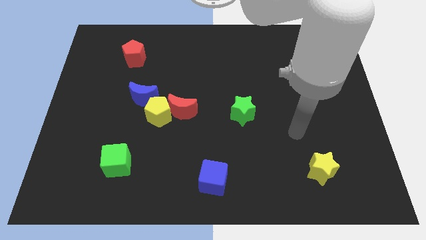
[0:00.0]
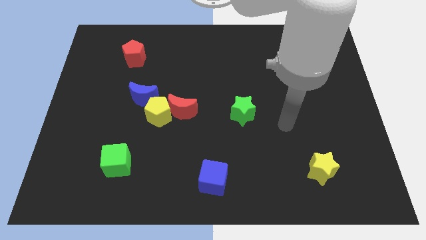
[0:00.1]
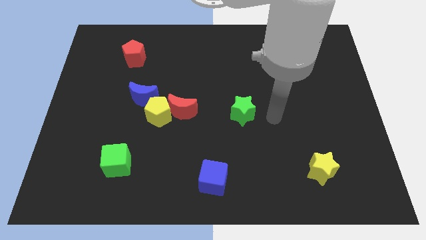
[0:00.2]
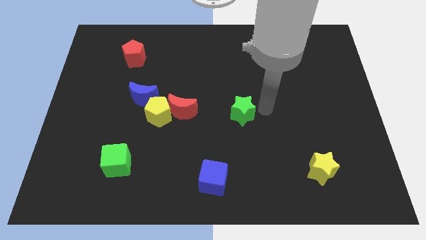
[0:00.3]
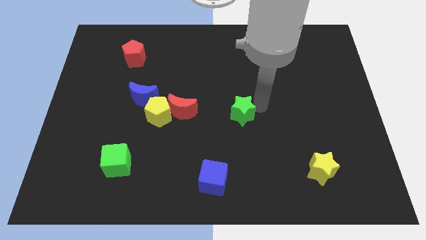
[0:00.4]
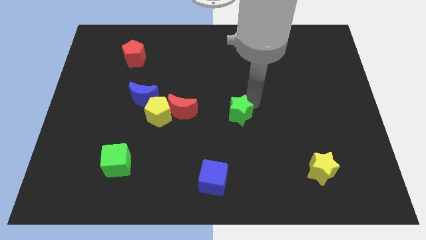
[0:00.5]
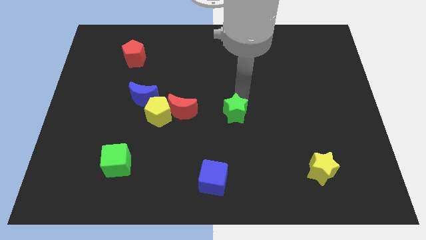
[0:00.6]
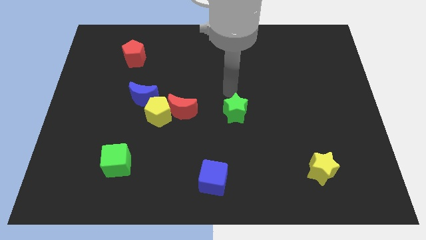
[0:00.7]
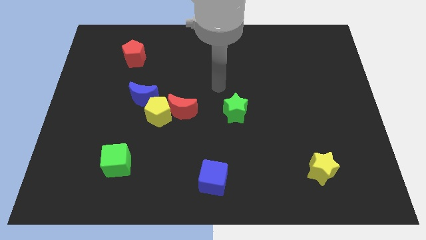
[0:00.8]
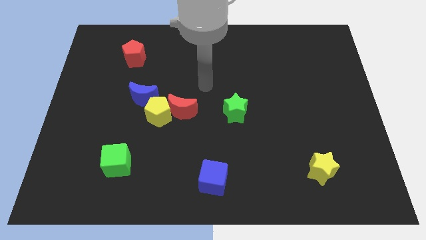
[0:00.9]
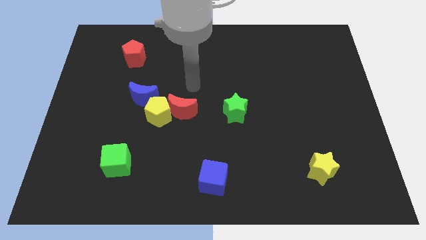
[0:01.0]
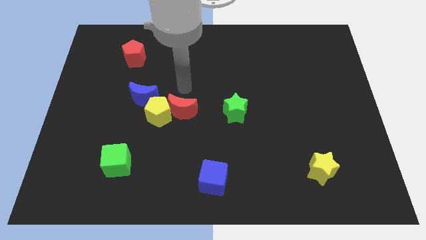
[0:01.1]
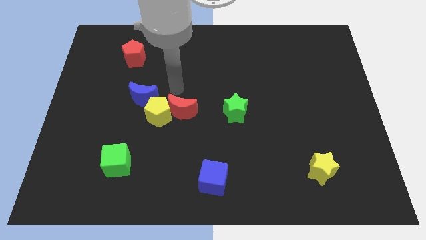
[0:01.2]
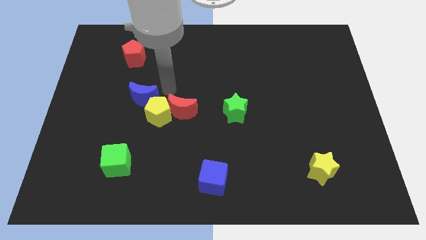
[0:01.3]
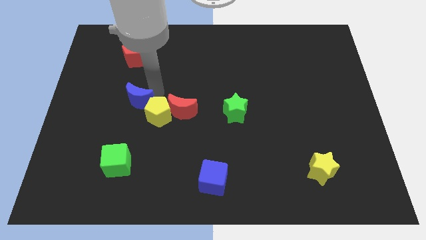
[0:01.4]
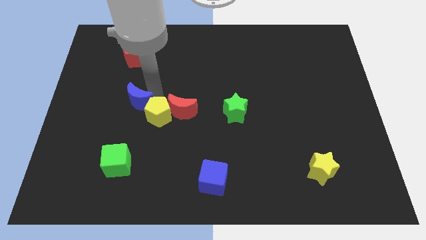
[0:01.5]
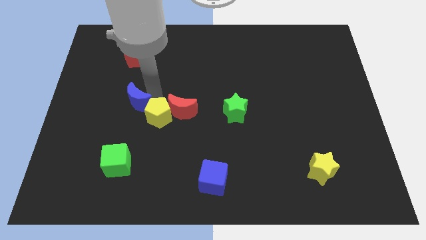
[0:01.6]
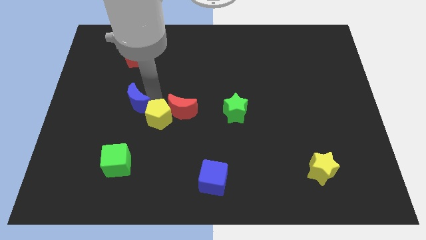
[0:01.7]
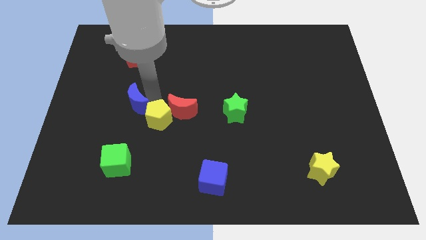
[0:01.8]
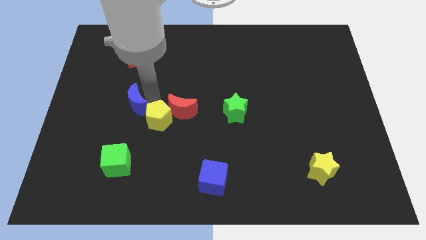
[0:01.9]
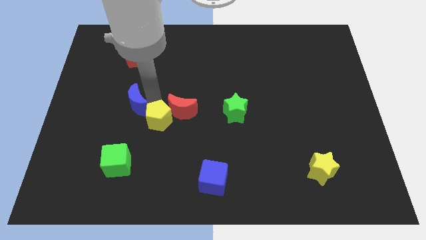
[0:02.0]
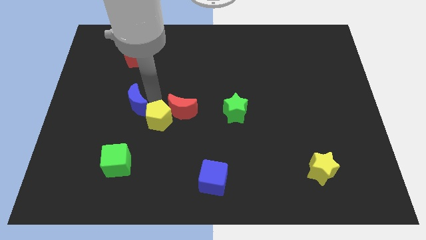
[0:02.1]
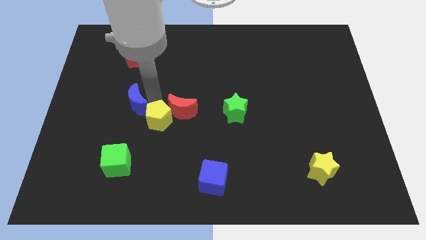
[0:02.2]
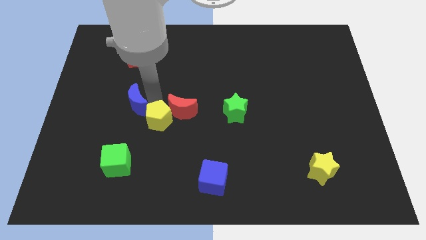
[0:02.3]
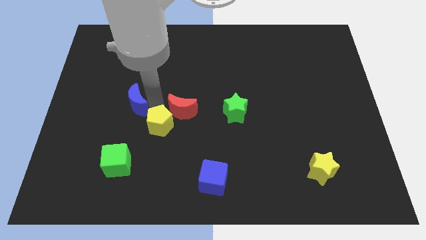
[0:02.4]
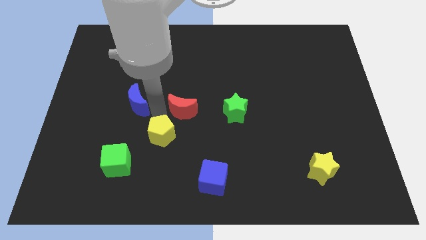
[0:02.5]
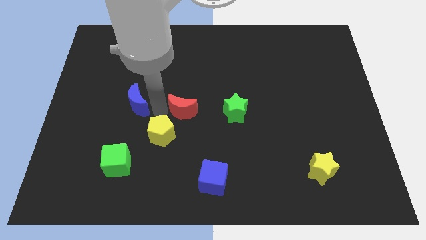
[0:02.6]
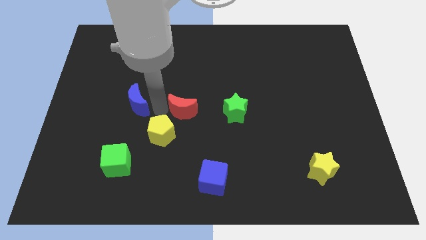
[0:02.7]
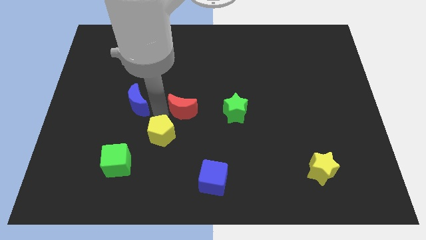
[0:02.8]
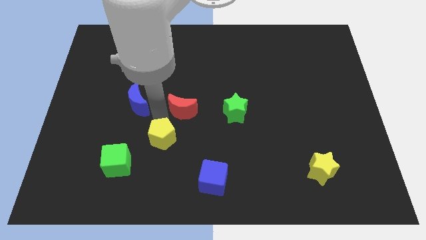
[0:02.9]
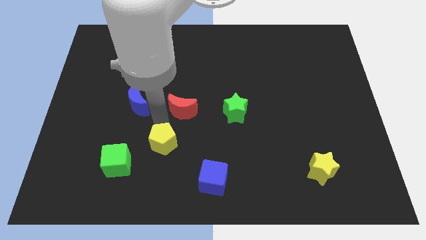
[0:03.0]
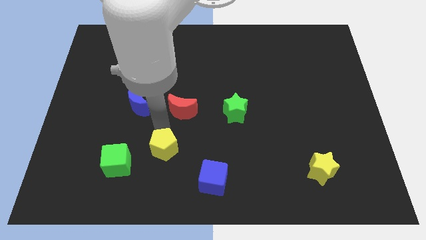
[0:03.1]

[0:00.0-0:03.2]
separate the yellow pentagon from the red moon and blue moon

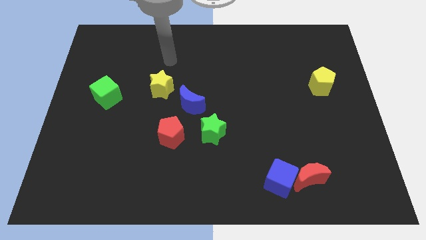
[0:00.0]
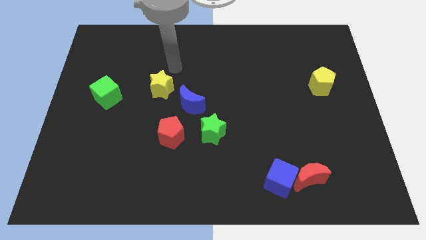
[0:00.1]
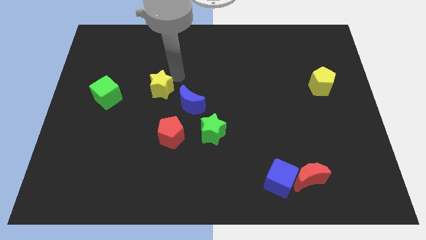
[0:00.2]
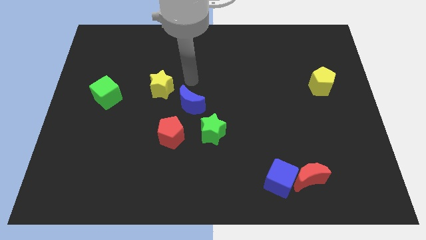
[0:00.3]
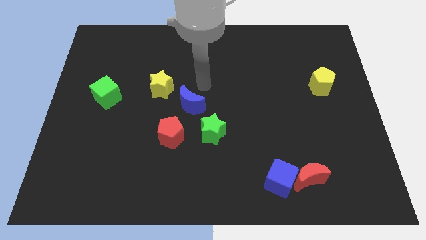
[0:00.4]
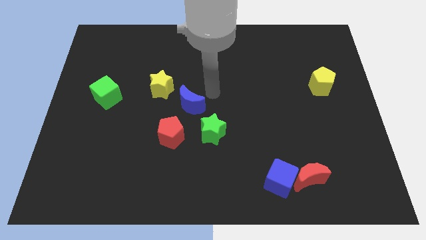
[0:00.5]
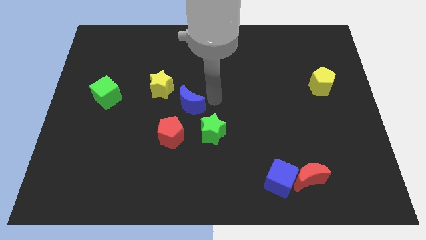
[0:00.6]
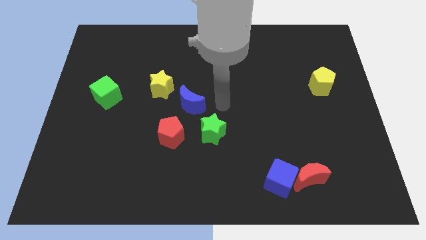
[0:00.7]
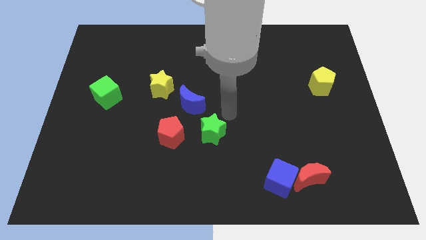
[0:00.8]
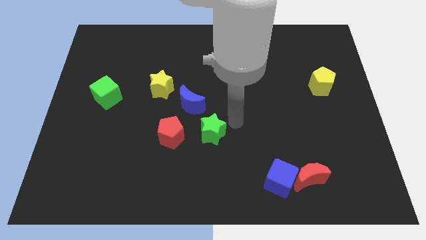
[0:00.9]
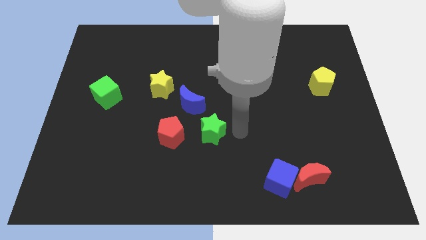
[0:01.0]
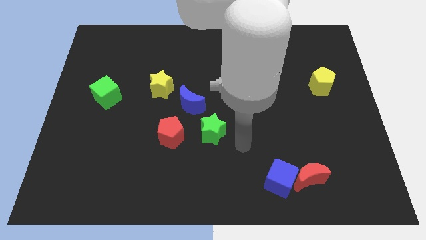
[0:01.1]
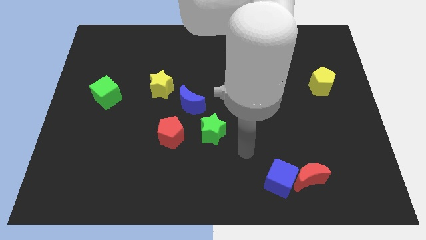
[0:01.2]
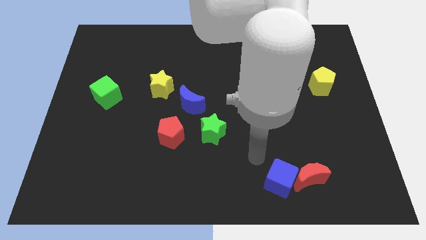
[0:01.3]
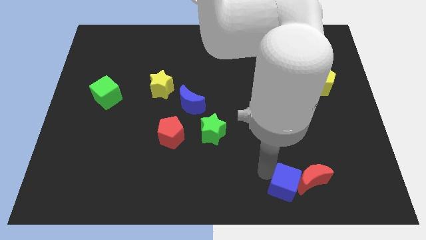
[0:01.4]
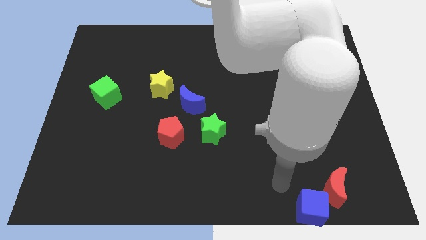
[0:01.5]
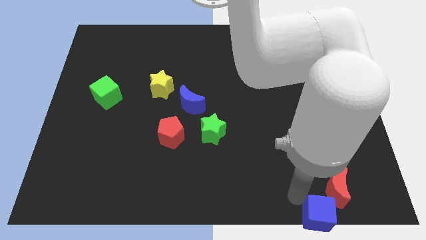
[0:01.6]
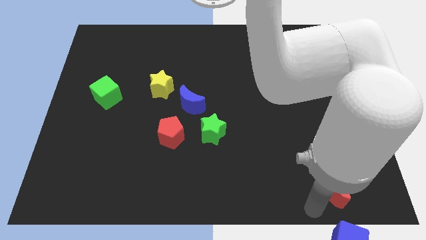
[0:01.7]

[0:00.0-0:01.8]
move the red moon away from the blue cube

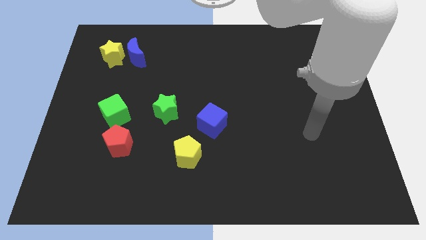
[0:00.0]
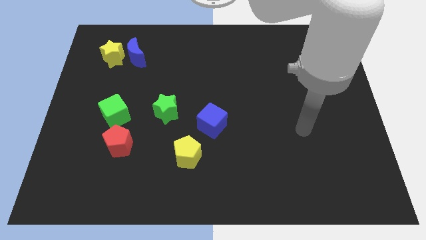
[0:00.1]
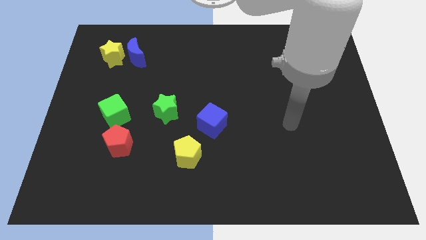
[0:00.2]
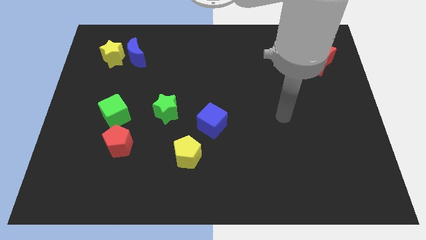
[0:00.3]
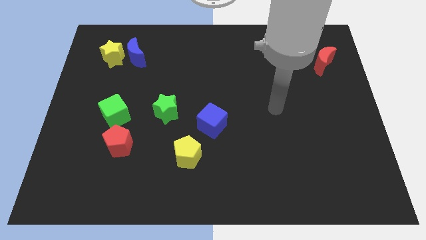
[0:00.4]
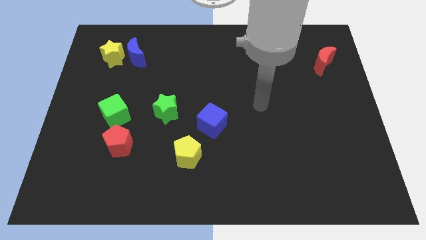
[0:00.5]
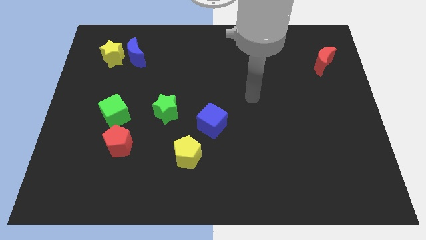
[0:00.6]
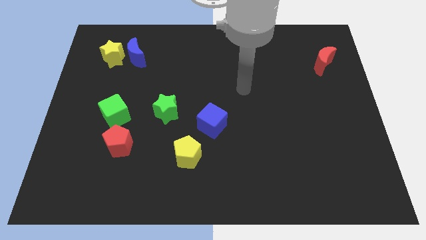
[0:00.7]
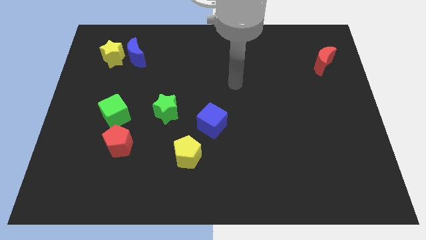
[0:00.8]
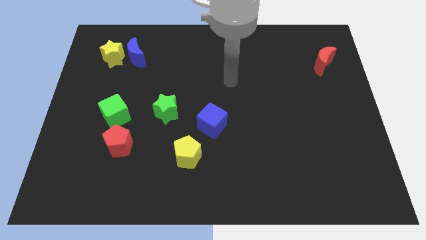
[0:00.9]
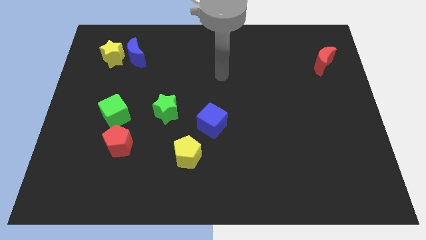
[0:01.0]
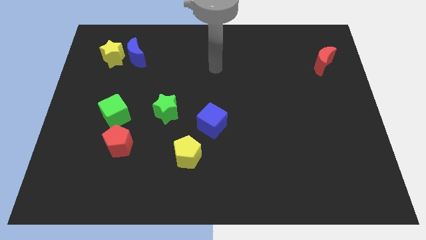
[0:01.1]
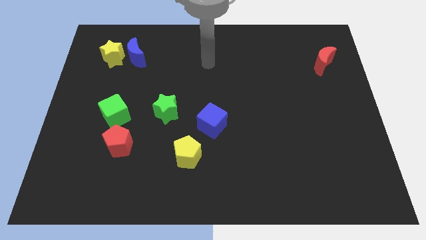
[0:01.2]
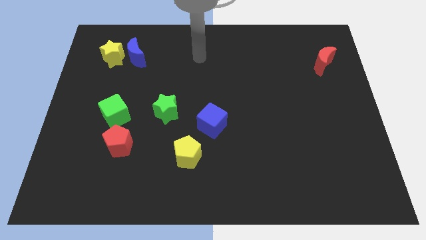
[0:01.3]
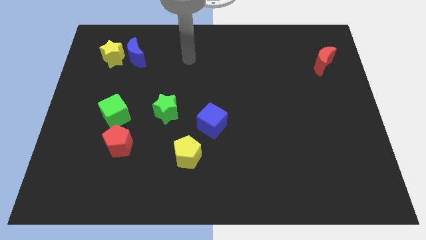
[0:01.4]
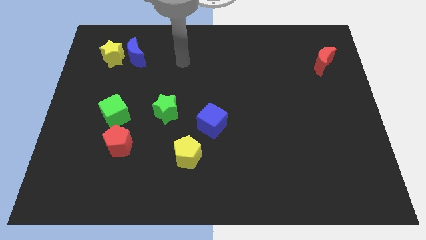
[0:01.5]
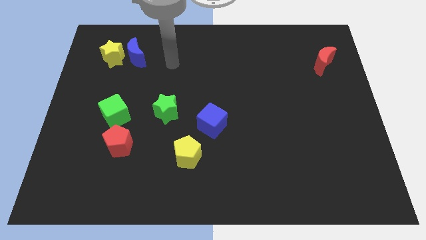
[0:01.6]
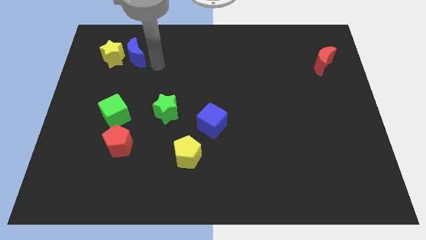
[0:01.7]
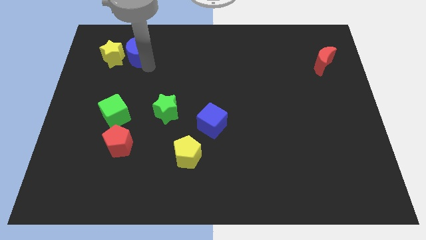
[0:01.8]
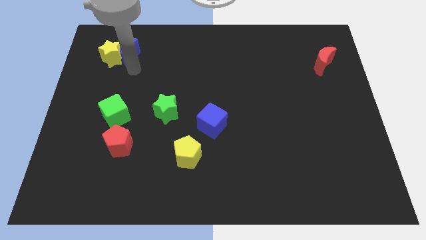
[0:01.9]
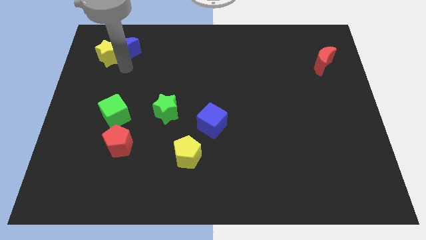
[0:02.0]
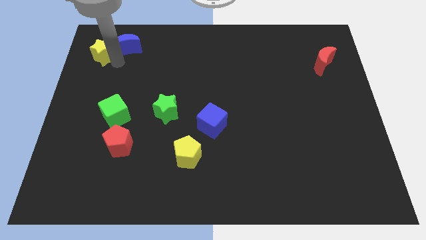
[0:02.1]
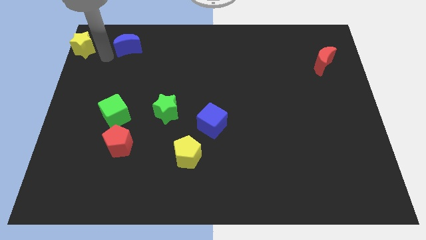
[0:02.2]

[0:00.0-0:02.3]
move the blue moon away from the yellow star

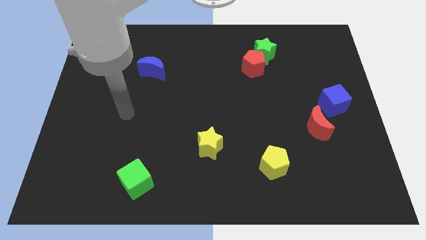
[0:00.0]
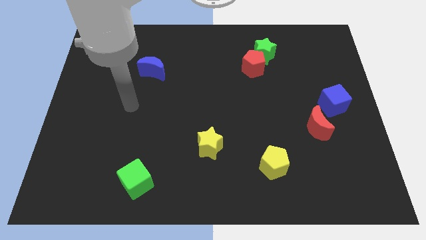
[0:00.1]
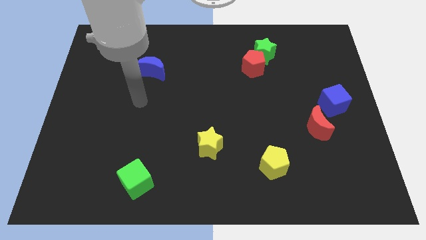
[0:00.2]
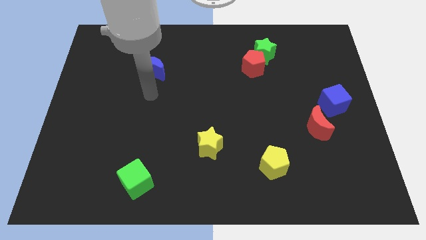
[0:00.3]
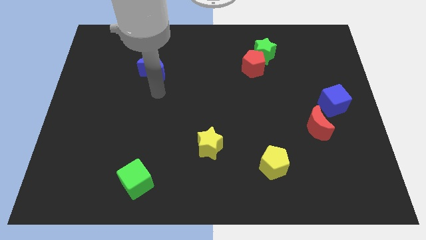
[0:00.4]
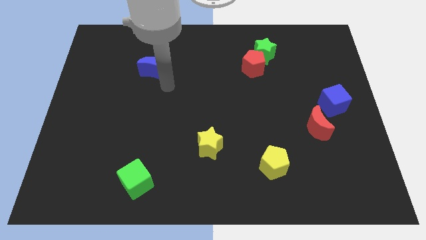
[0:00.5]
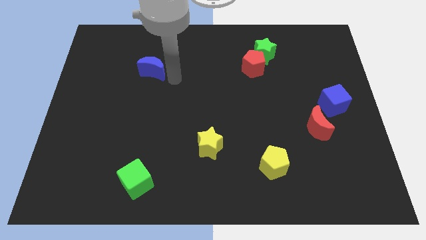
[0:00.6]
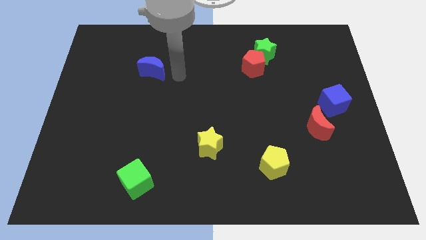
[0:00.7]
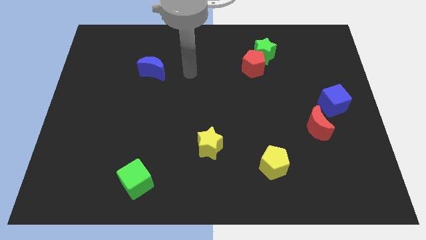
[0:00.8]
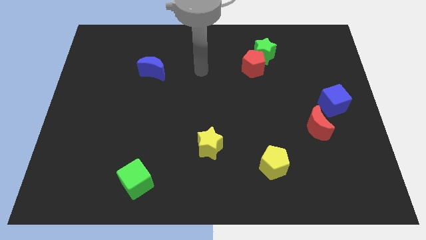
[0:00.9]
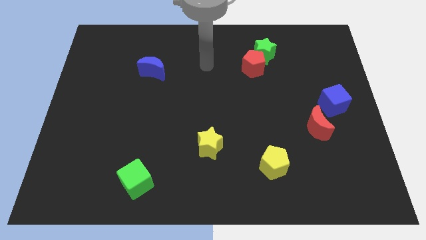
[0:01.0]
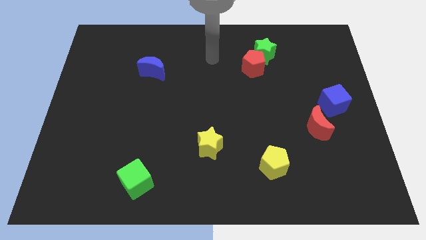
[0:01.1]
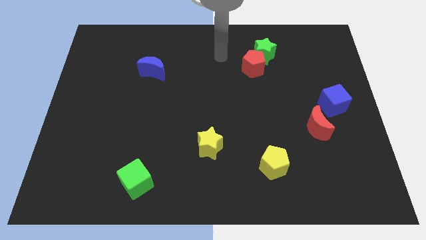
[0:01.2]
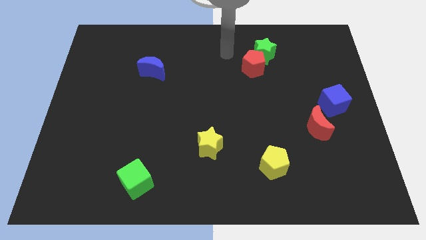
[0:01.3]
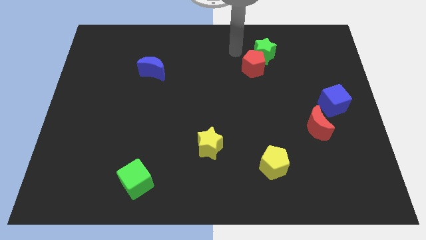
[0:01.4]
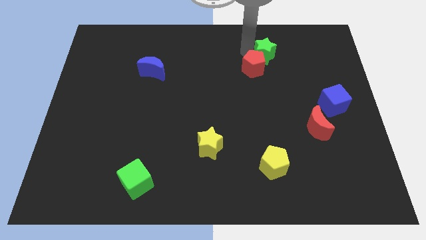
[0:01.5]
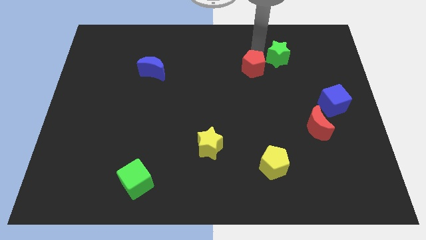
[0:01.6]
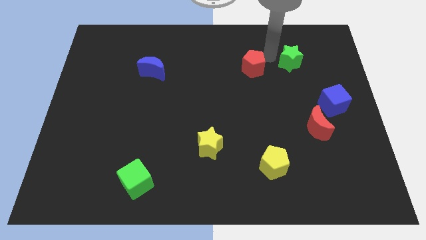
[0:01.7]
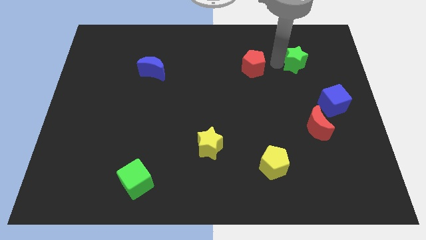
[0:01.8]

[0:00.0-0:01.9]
pull the red pentagon apart from the green star

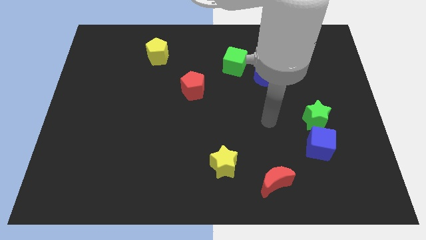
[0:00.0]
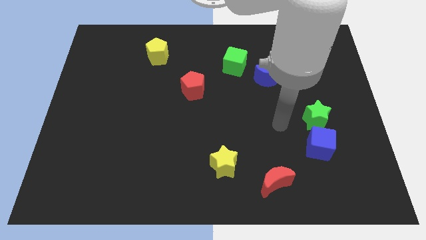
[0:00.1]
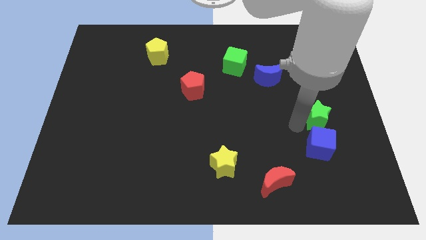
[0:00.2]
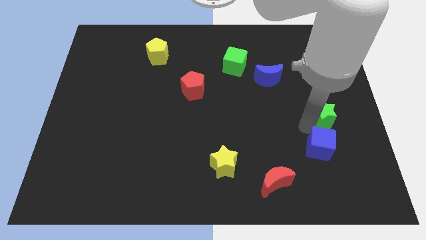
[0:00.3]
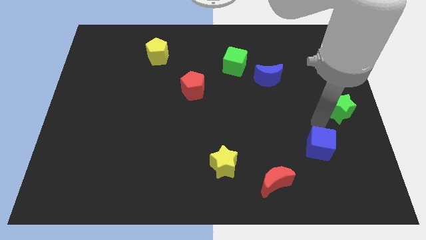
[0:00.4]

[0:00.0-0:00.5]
pull the blue cube apart from the green star
